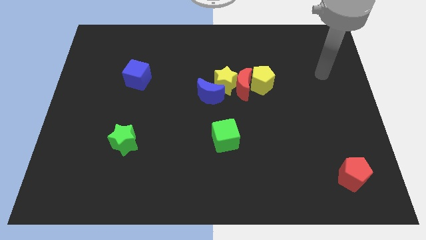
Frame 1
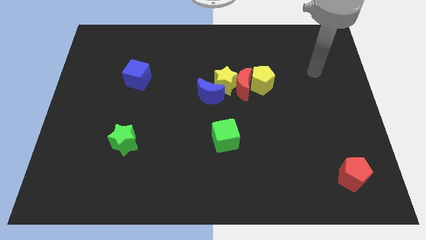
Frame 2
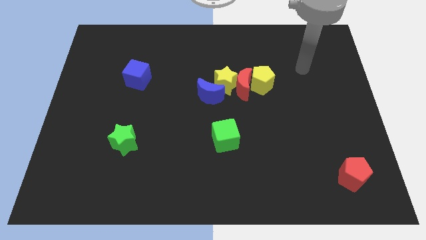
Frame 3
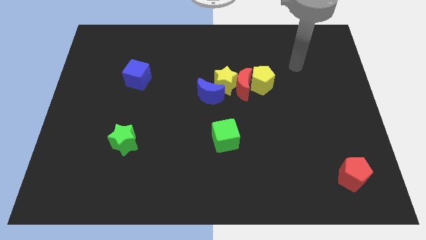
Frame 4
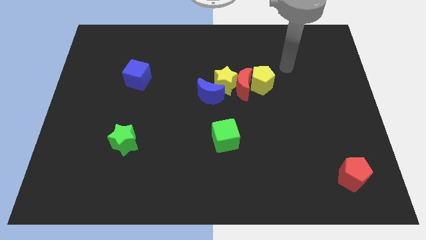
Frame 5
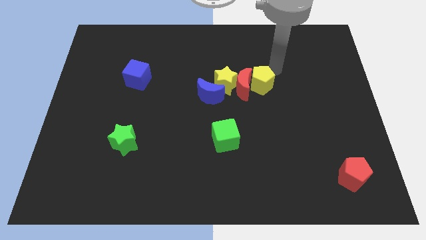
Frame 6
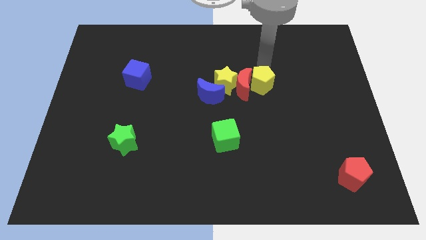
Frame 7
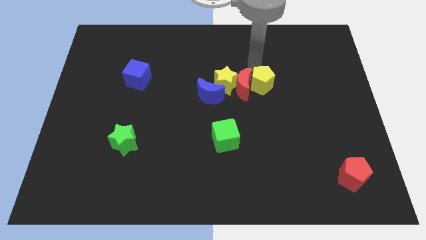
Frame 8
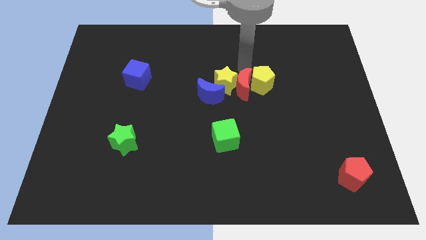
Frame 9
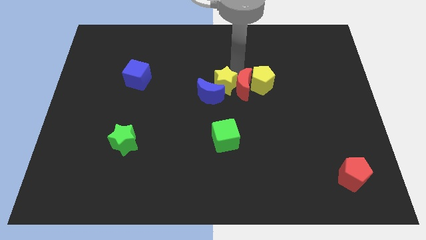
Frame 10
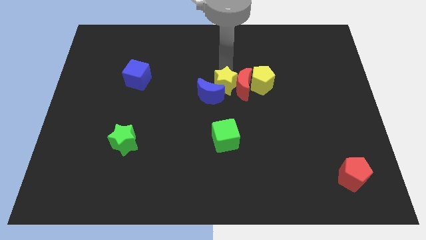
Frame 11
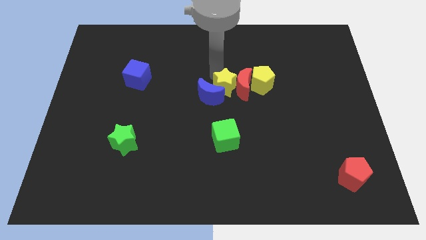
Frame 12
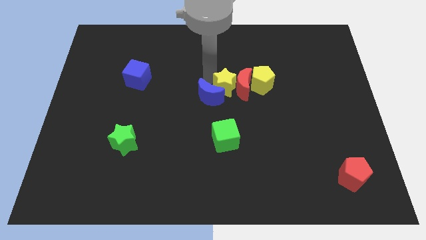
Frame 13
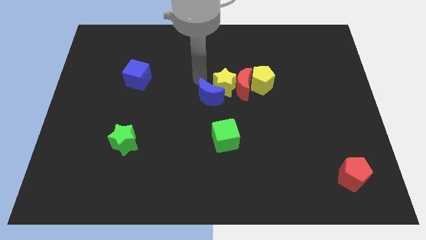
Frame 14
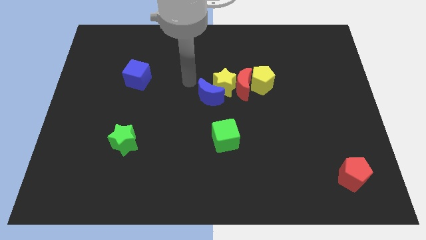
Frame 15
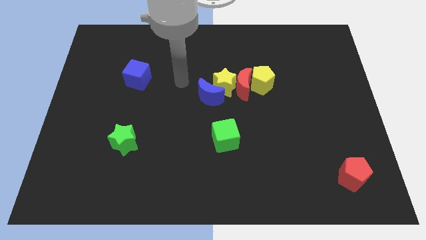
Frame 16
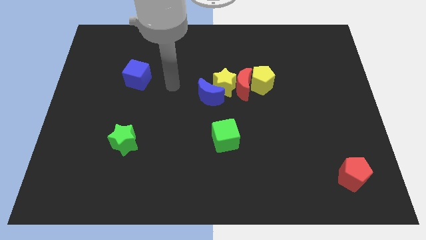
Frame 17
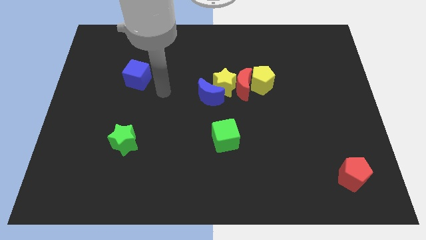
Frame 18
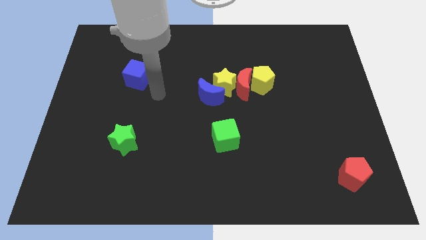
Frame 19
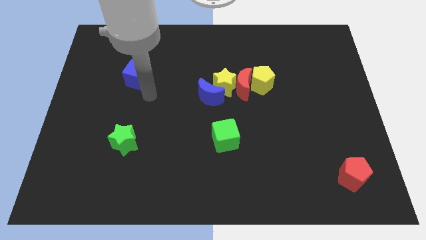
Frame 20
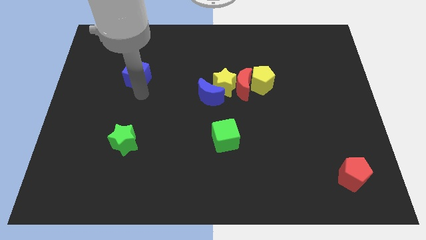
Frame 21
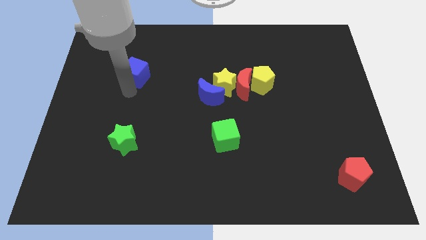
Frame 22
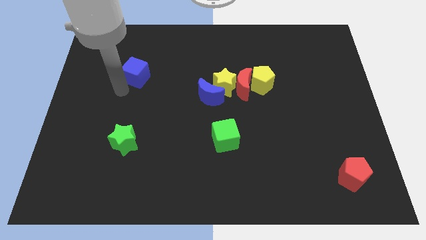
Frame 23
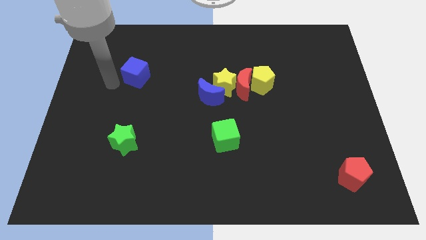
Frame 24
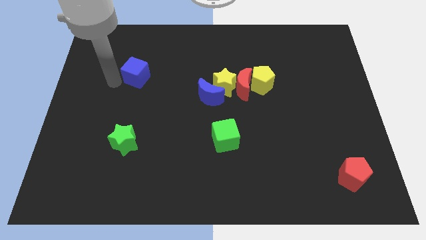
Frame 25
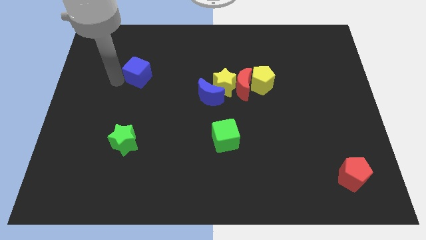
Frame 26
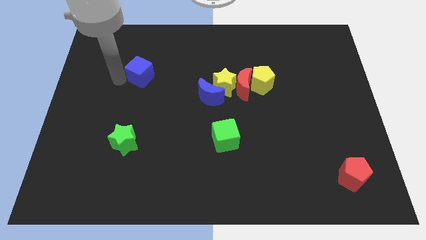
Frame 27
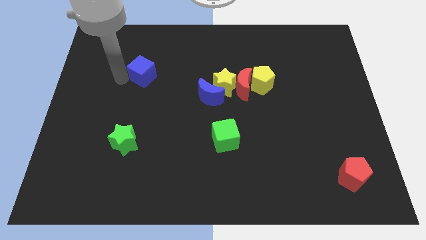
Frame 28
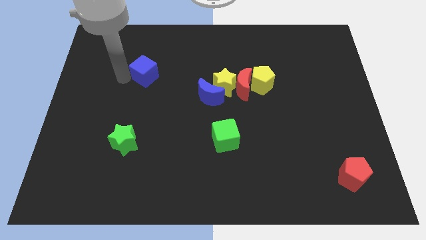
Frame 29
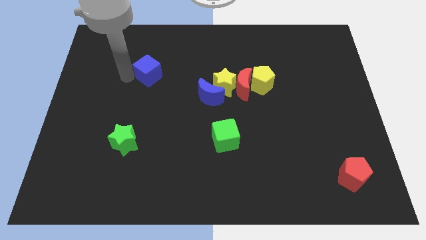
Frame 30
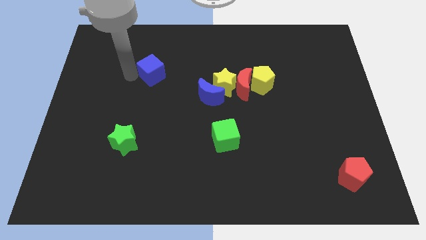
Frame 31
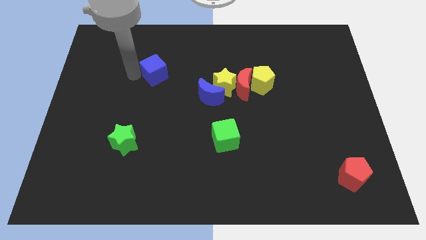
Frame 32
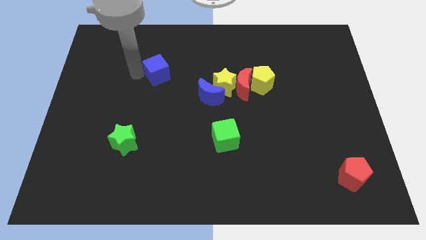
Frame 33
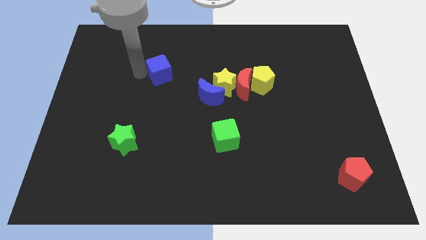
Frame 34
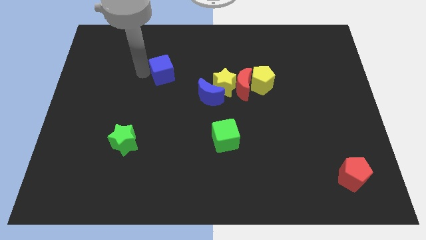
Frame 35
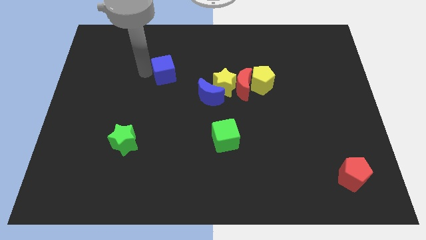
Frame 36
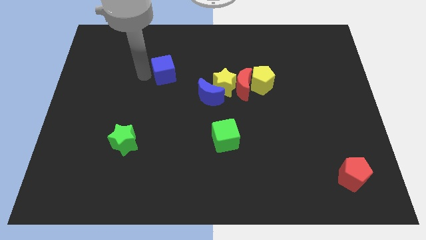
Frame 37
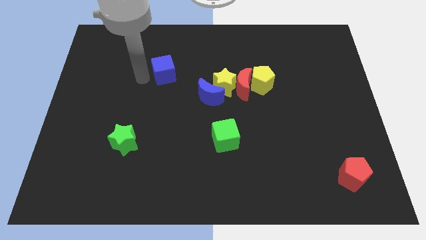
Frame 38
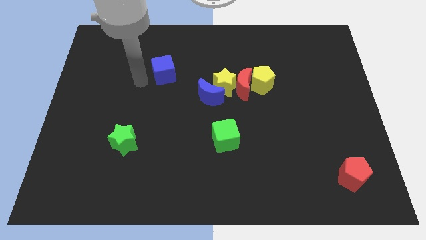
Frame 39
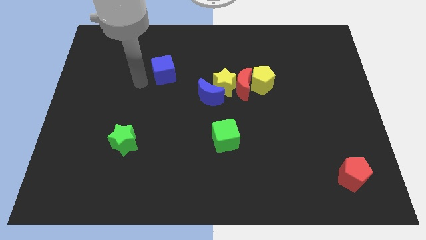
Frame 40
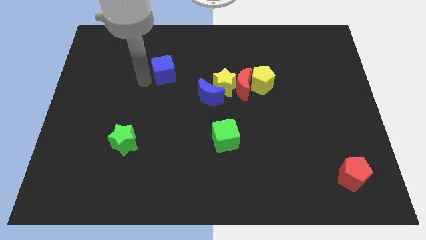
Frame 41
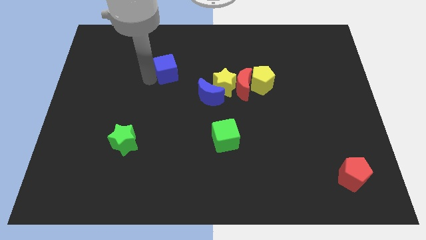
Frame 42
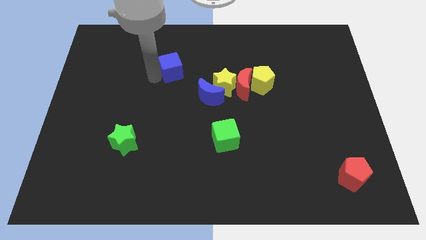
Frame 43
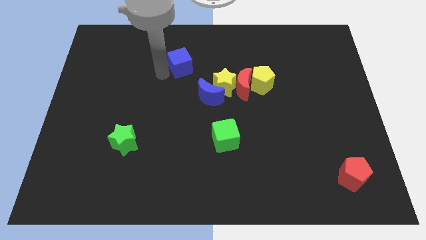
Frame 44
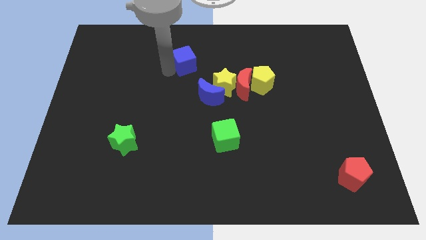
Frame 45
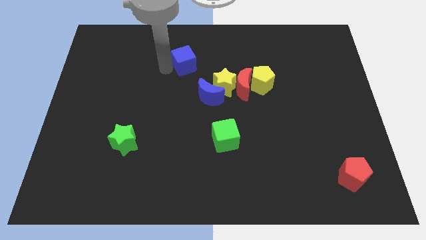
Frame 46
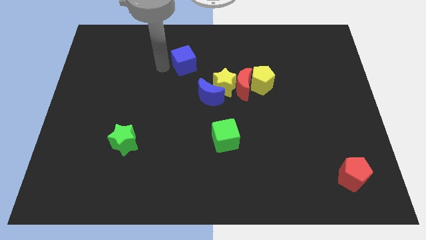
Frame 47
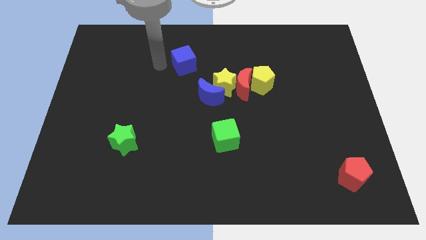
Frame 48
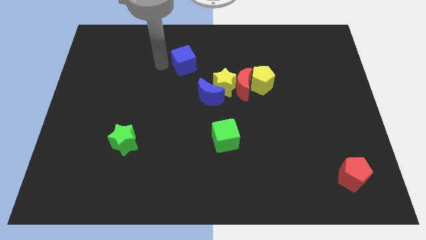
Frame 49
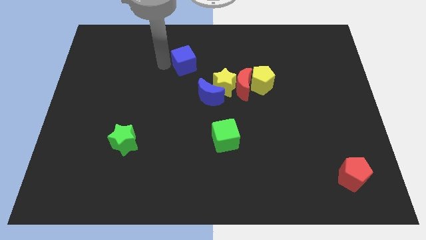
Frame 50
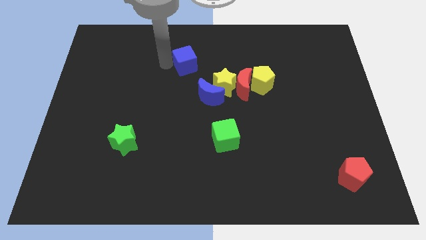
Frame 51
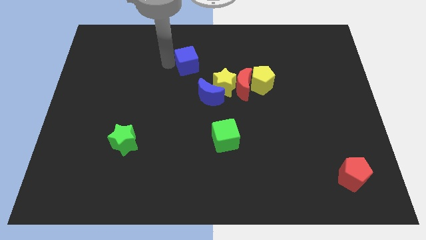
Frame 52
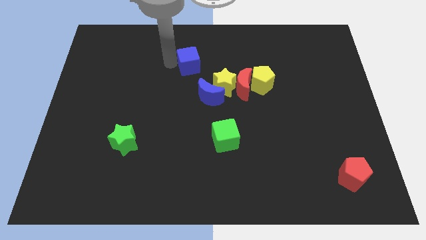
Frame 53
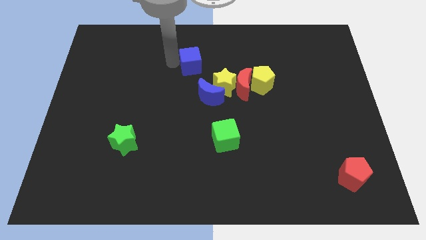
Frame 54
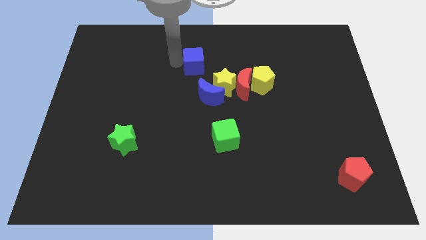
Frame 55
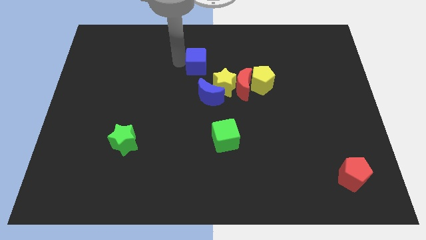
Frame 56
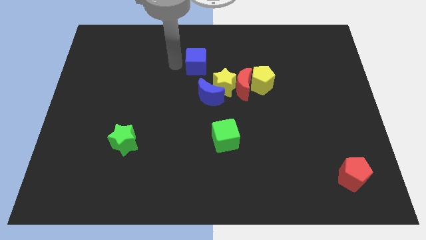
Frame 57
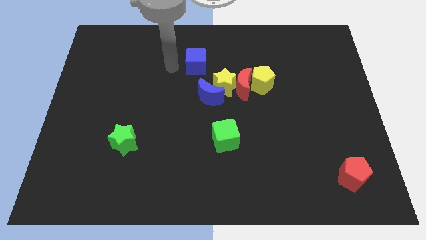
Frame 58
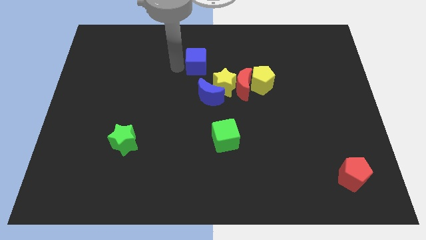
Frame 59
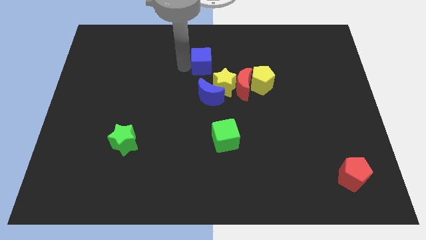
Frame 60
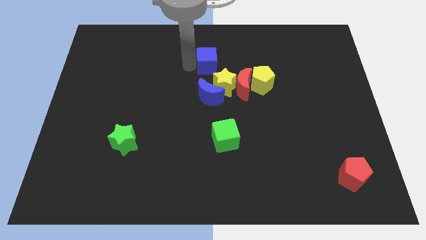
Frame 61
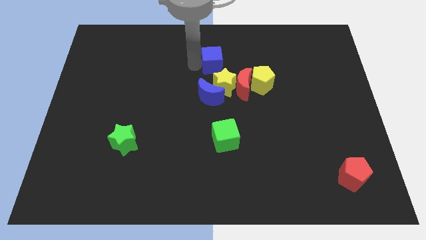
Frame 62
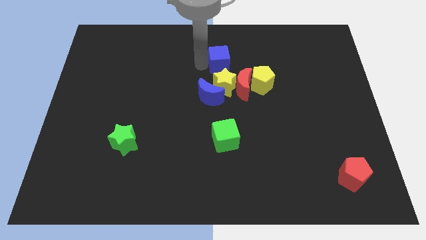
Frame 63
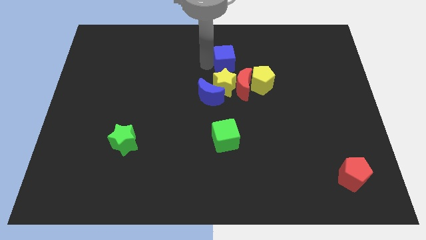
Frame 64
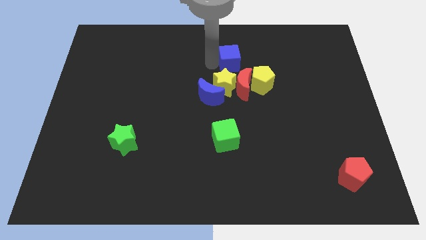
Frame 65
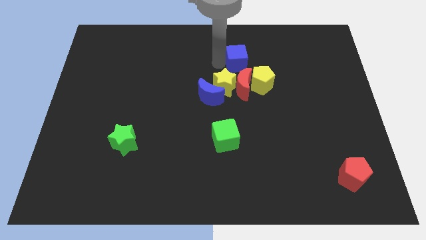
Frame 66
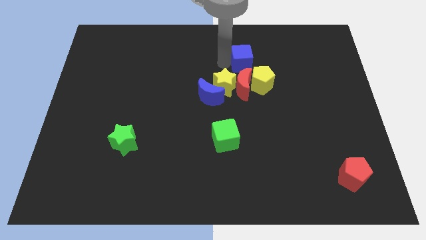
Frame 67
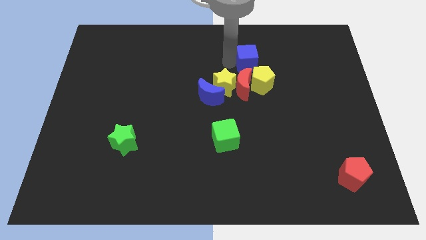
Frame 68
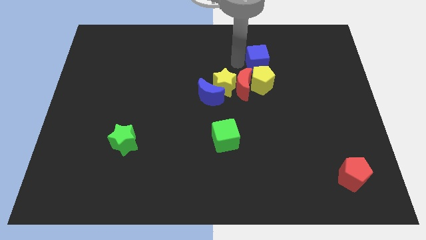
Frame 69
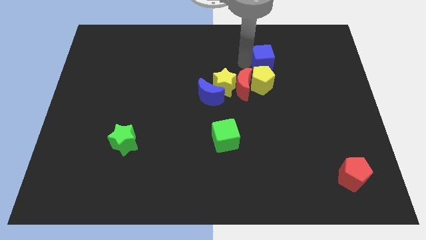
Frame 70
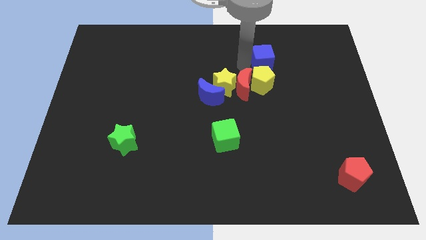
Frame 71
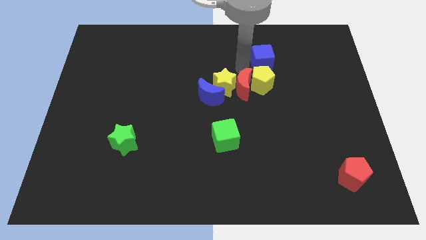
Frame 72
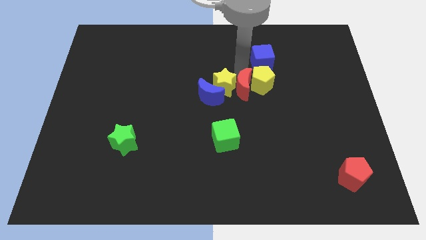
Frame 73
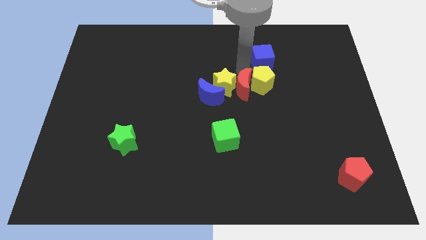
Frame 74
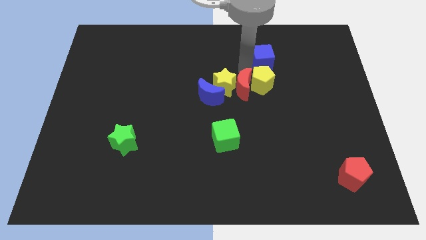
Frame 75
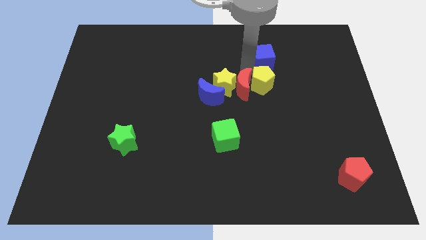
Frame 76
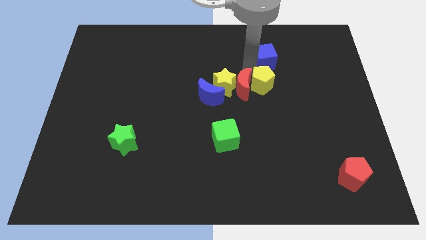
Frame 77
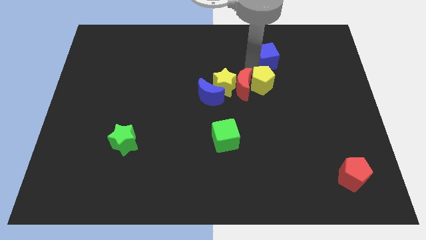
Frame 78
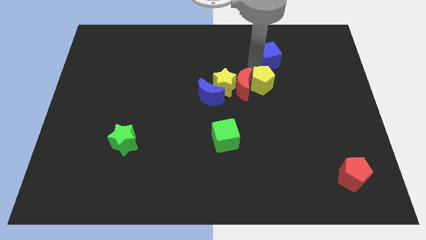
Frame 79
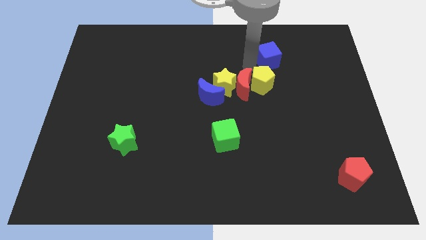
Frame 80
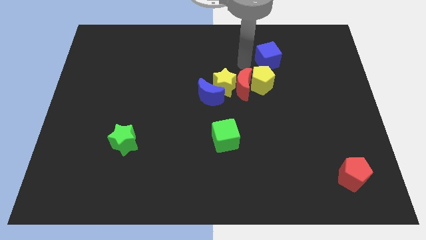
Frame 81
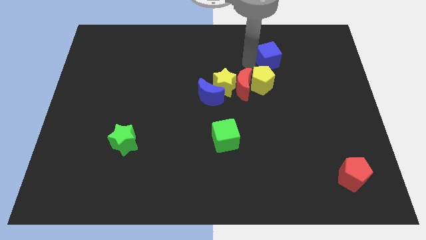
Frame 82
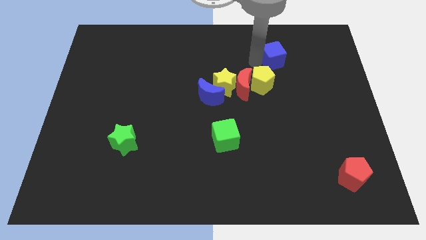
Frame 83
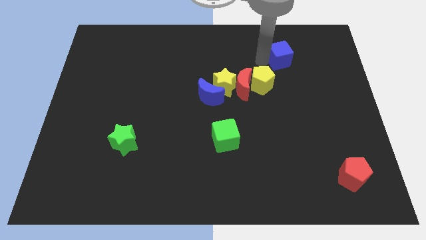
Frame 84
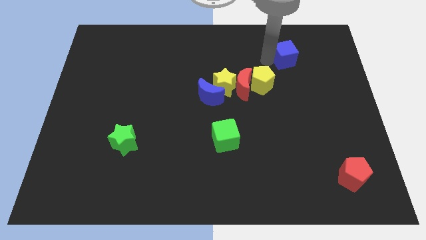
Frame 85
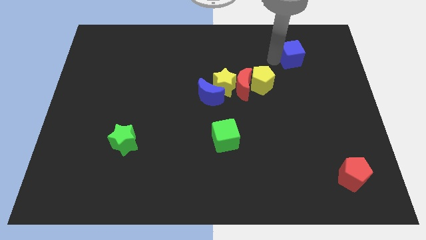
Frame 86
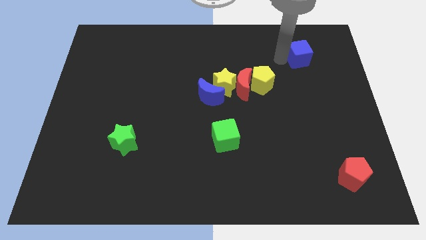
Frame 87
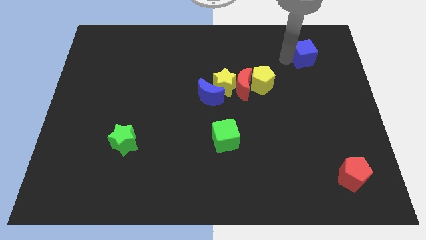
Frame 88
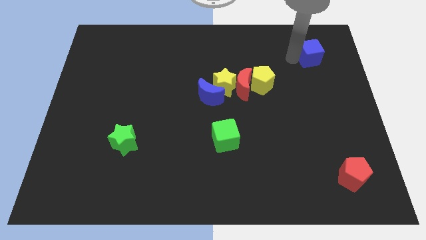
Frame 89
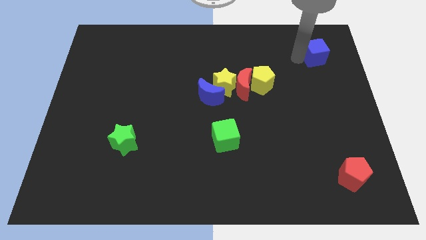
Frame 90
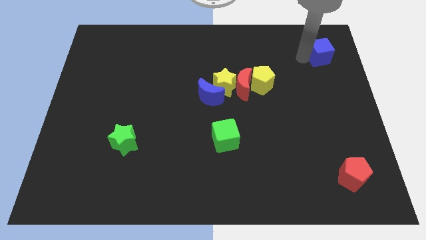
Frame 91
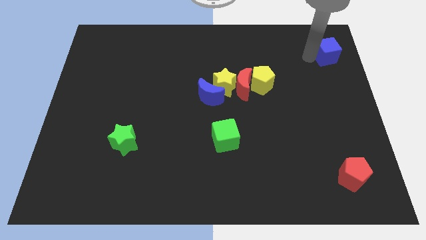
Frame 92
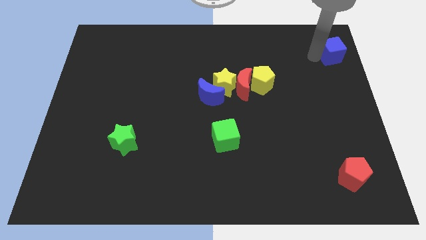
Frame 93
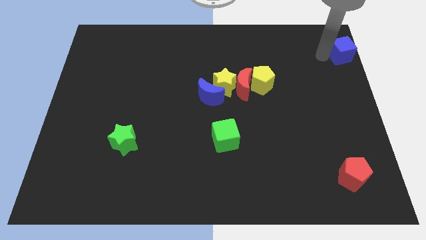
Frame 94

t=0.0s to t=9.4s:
slide the blue cube to the top right of the board
